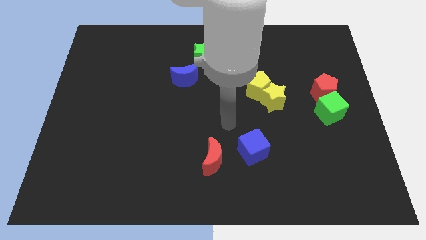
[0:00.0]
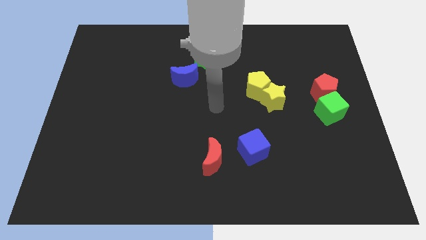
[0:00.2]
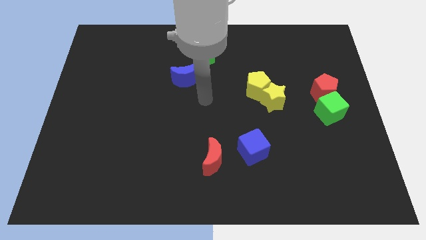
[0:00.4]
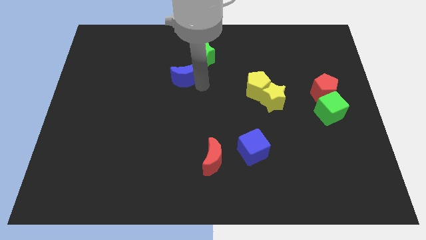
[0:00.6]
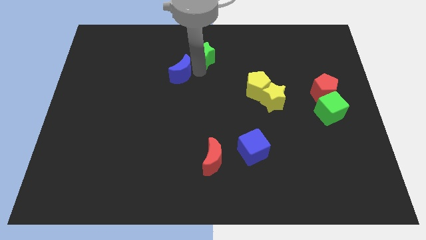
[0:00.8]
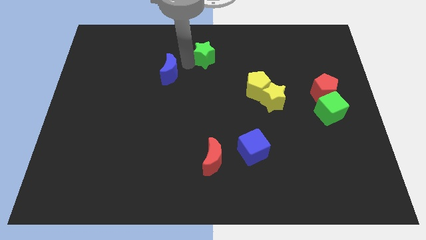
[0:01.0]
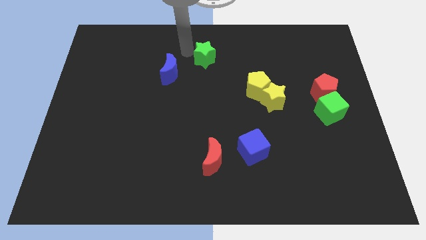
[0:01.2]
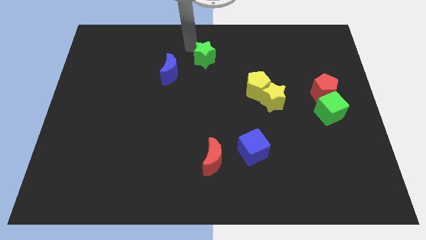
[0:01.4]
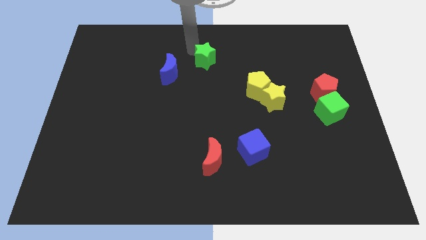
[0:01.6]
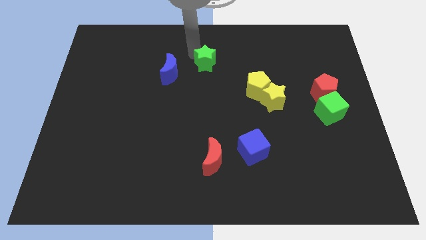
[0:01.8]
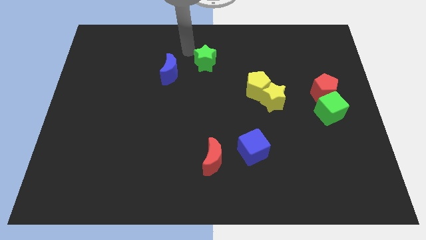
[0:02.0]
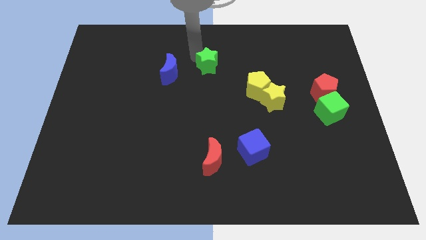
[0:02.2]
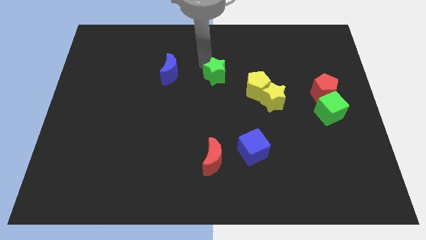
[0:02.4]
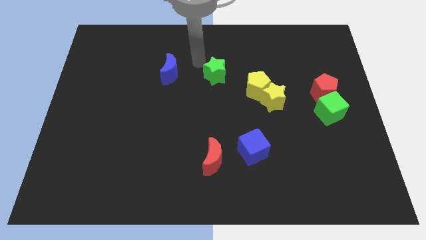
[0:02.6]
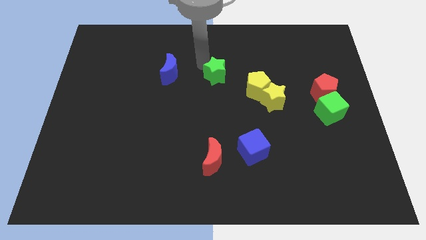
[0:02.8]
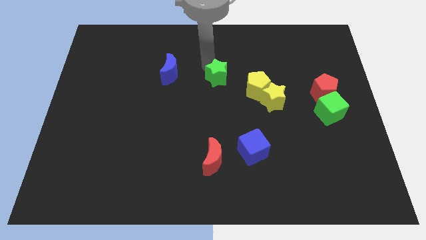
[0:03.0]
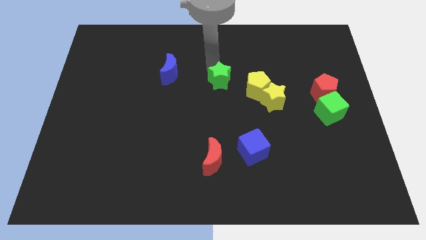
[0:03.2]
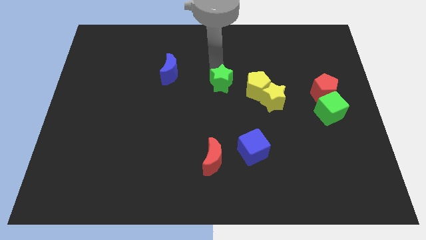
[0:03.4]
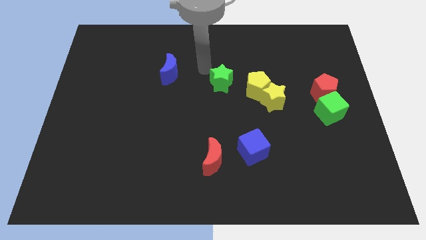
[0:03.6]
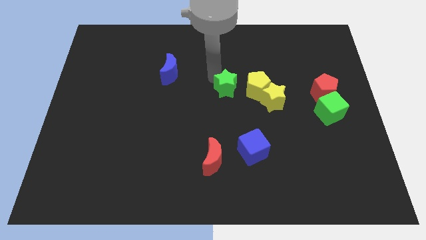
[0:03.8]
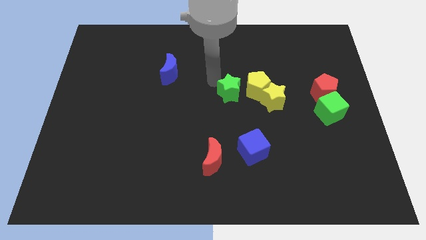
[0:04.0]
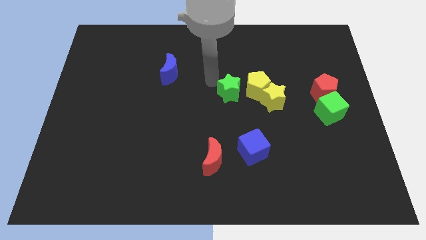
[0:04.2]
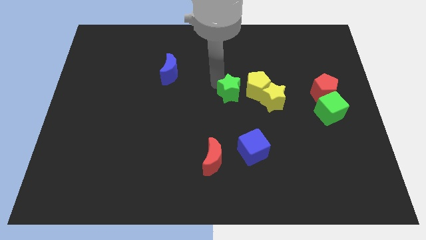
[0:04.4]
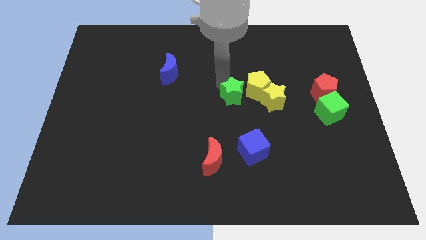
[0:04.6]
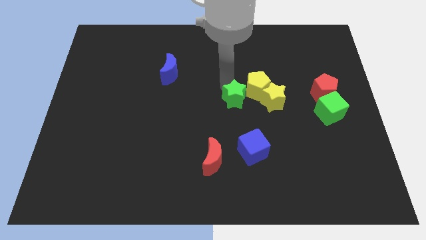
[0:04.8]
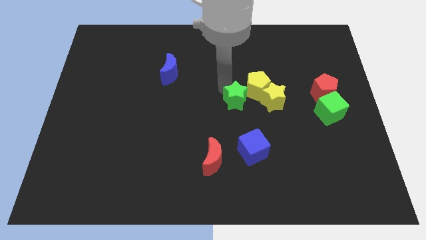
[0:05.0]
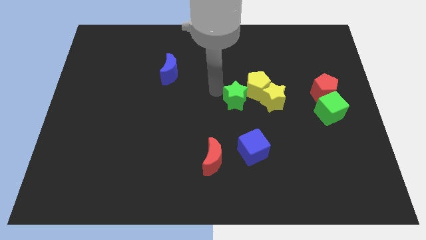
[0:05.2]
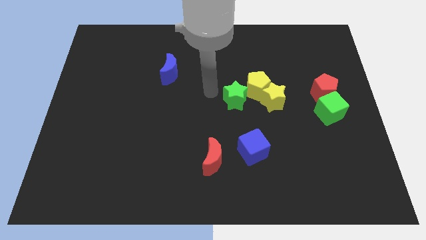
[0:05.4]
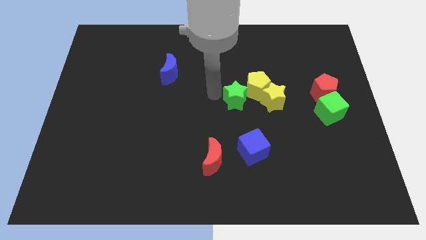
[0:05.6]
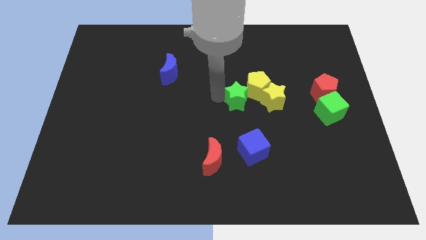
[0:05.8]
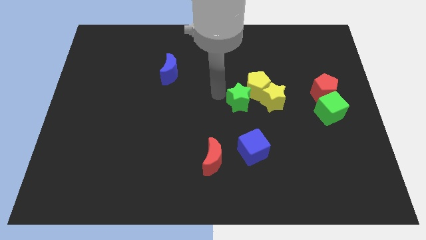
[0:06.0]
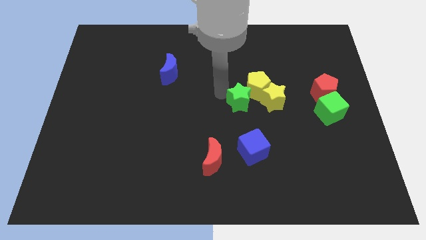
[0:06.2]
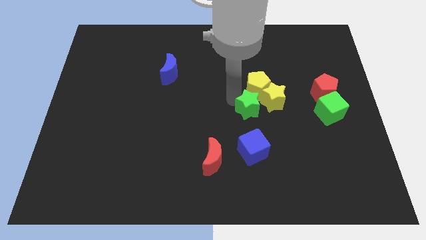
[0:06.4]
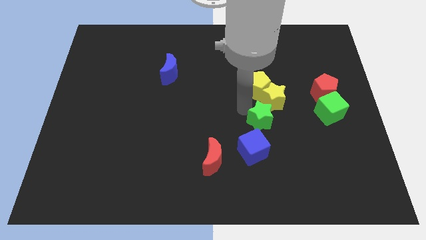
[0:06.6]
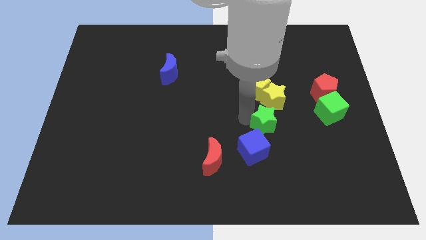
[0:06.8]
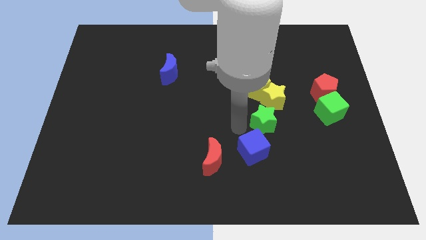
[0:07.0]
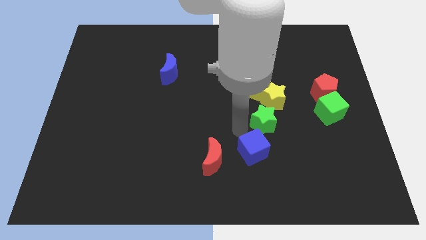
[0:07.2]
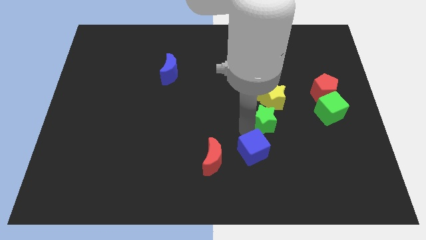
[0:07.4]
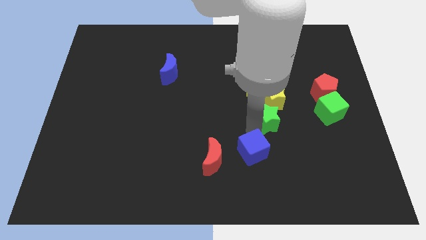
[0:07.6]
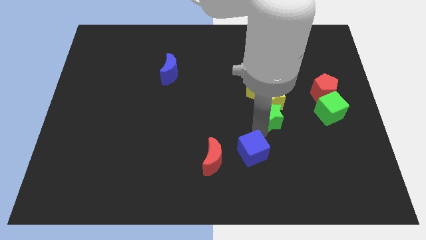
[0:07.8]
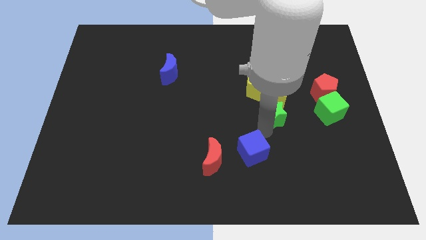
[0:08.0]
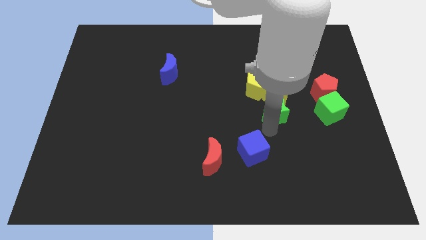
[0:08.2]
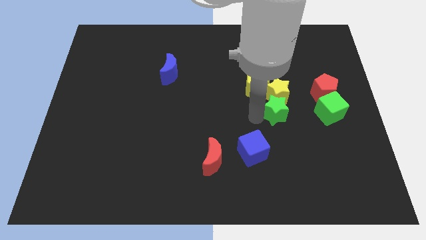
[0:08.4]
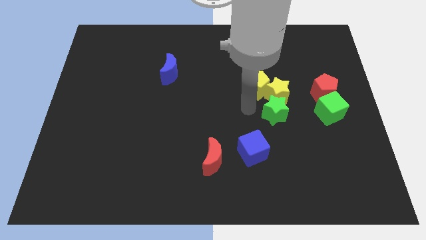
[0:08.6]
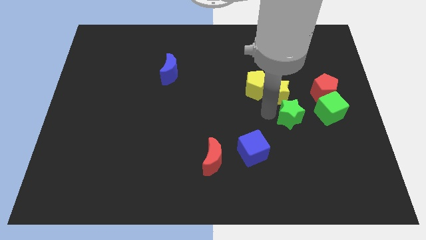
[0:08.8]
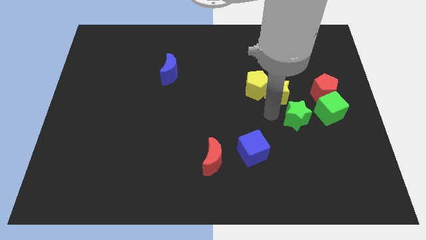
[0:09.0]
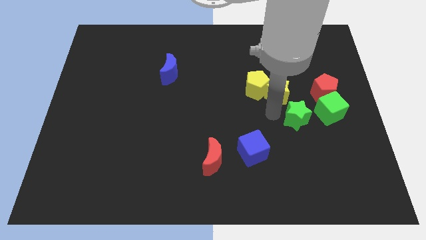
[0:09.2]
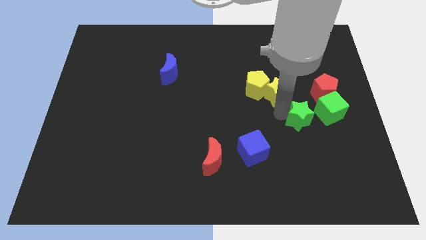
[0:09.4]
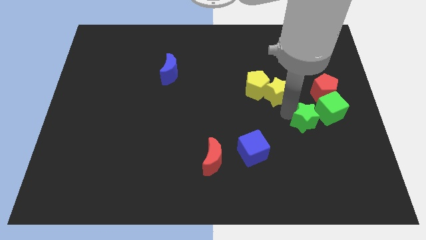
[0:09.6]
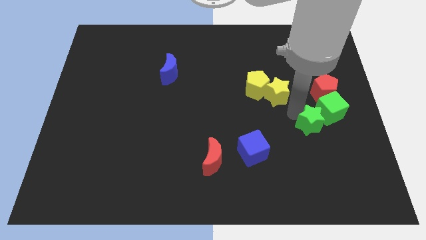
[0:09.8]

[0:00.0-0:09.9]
move the green star to the bottom side of the red pentagon

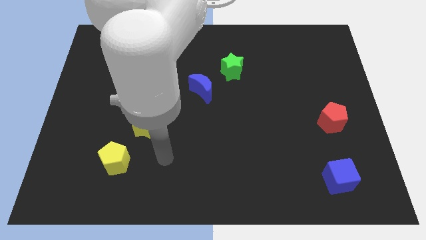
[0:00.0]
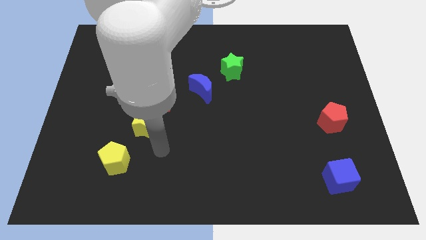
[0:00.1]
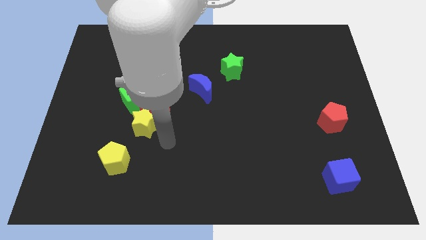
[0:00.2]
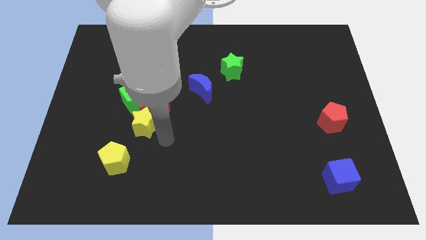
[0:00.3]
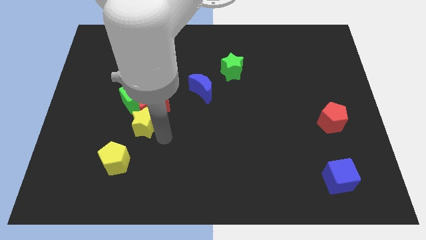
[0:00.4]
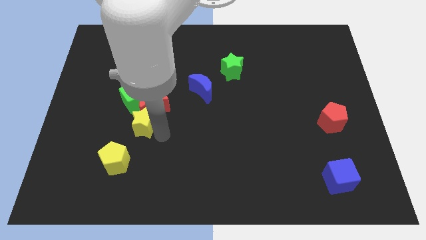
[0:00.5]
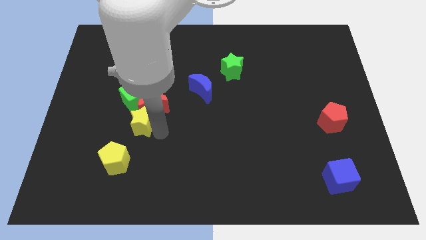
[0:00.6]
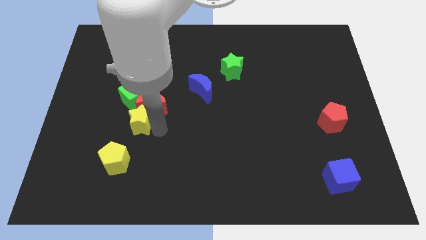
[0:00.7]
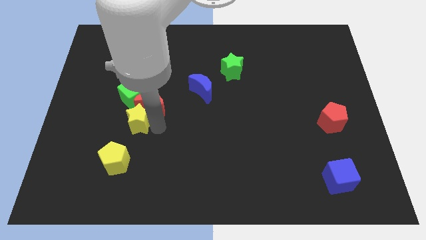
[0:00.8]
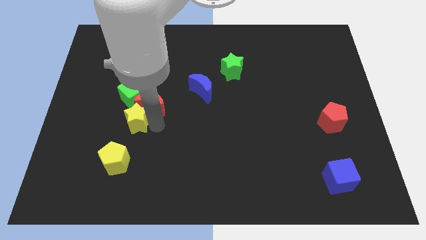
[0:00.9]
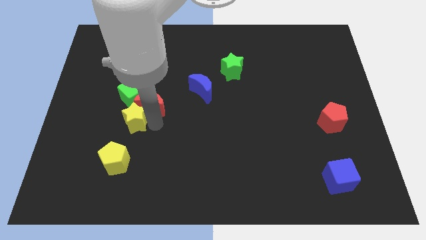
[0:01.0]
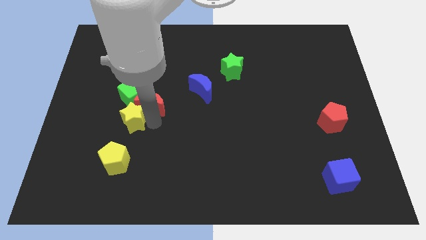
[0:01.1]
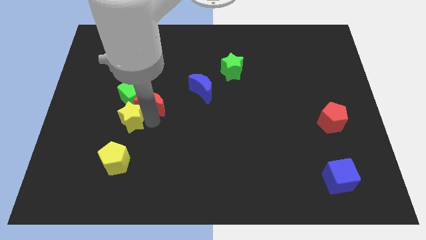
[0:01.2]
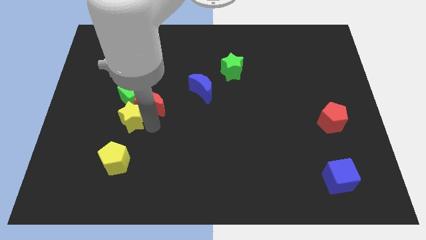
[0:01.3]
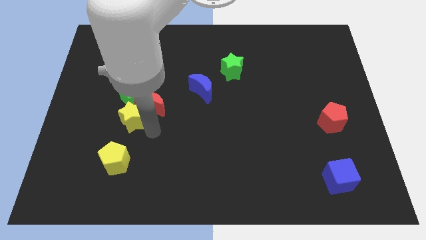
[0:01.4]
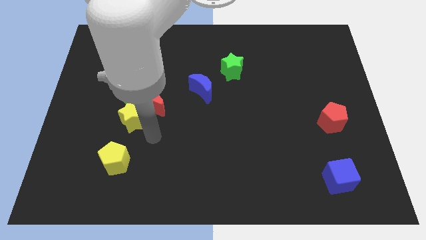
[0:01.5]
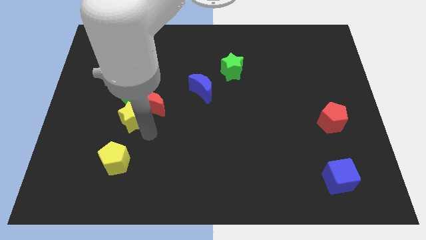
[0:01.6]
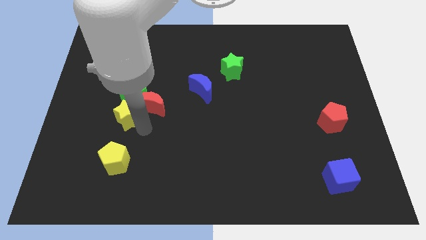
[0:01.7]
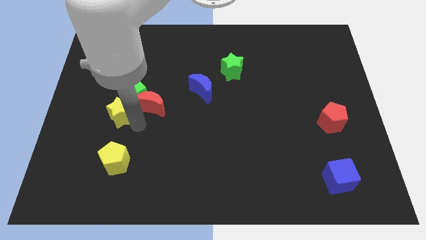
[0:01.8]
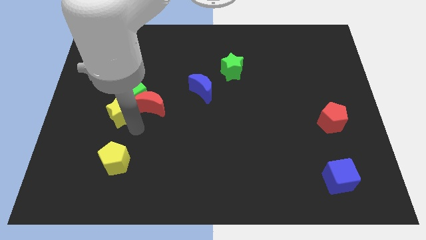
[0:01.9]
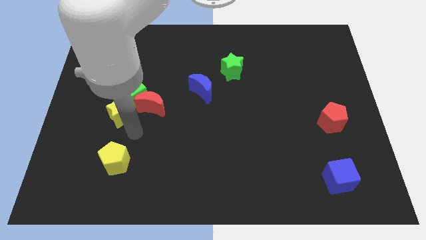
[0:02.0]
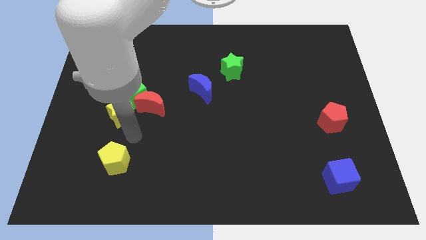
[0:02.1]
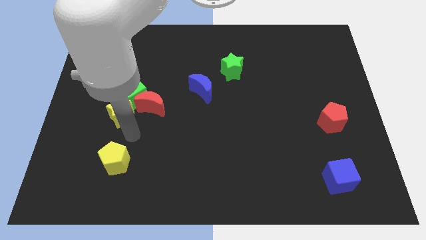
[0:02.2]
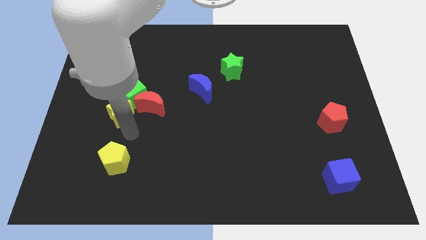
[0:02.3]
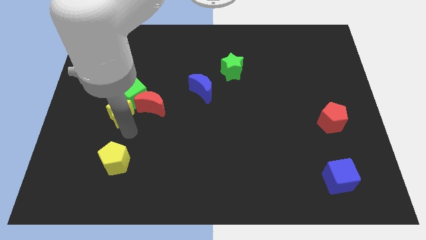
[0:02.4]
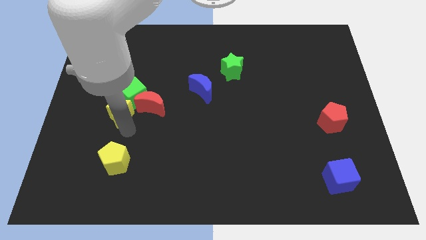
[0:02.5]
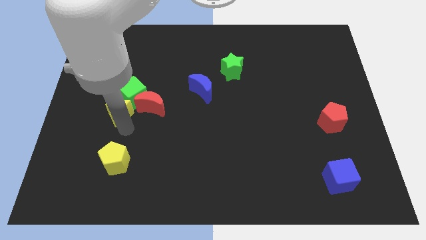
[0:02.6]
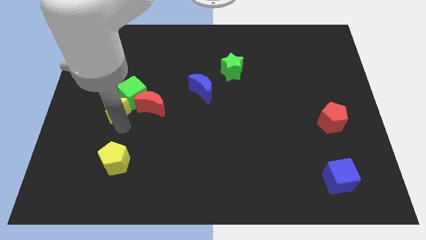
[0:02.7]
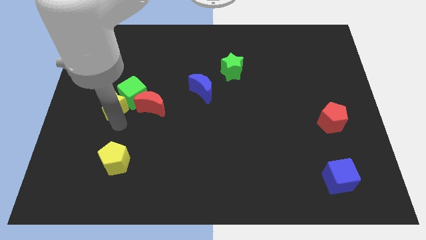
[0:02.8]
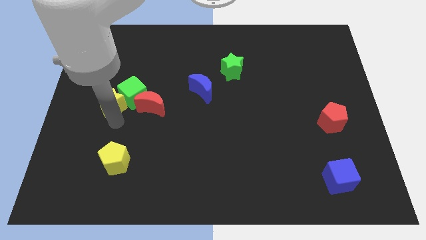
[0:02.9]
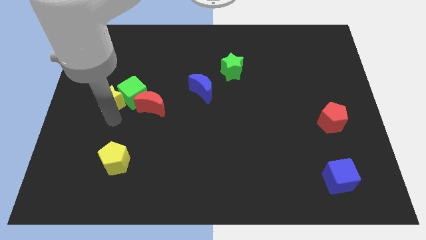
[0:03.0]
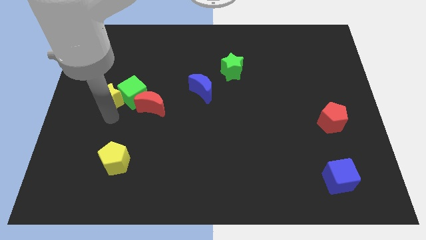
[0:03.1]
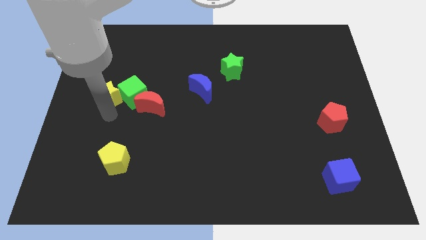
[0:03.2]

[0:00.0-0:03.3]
slide the yellow star to the top left side of the green cube
